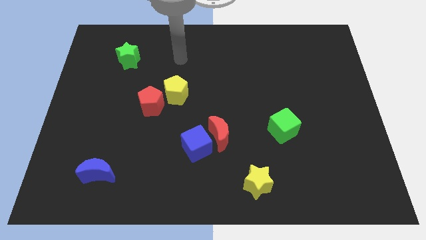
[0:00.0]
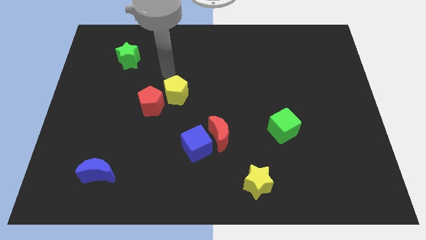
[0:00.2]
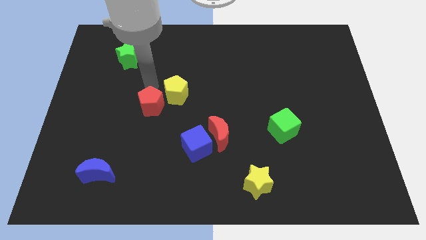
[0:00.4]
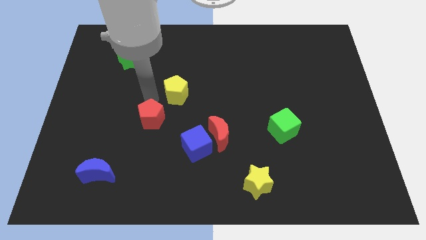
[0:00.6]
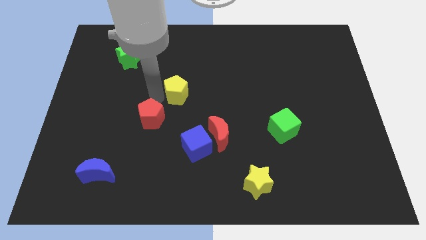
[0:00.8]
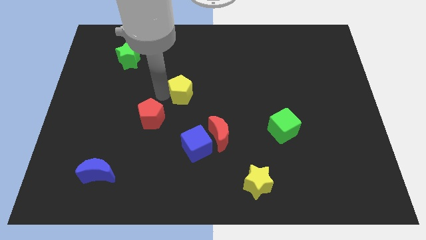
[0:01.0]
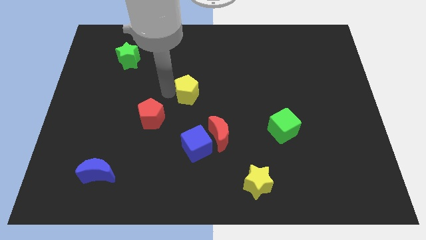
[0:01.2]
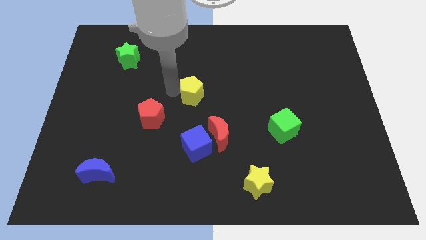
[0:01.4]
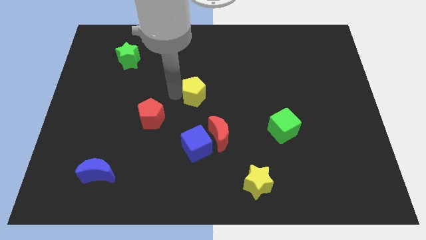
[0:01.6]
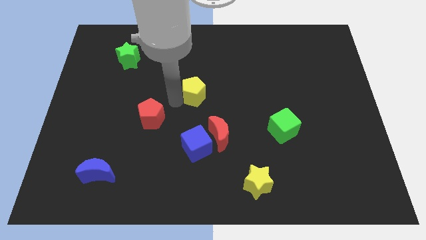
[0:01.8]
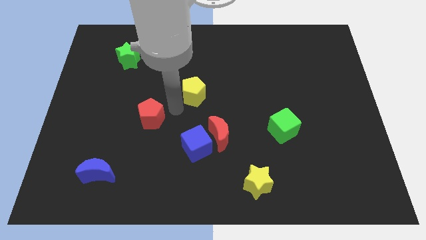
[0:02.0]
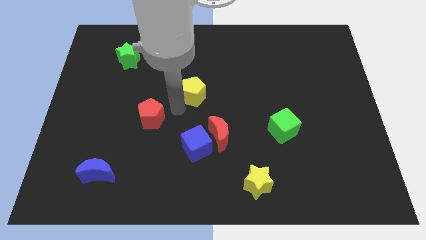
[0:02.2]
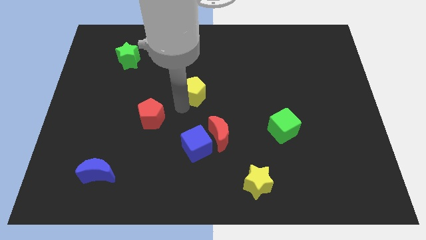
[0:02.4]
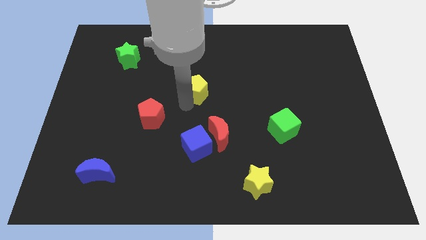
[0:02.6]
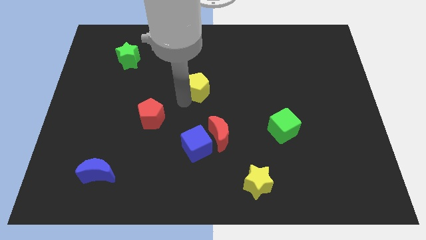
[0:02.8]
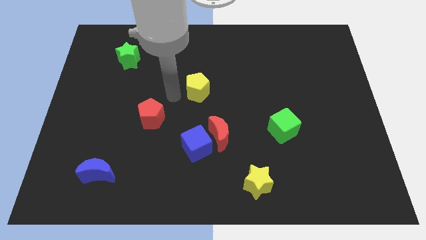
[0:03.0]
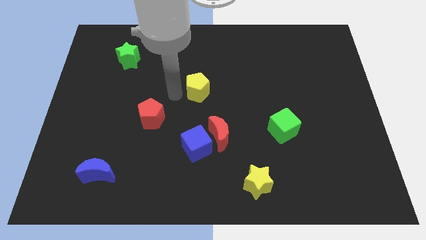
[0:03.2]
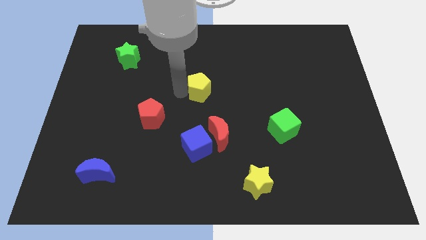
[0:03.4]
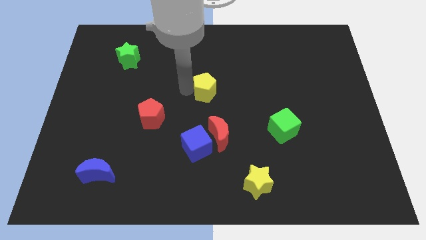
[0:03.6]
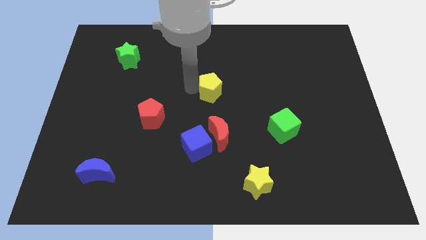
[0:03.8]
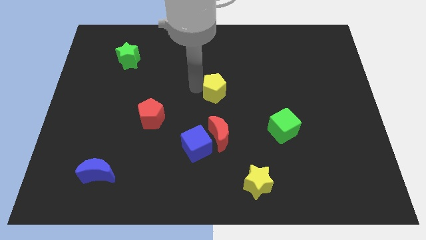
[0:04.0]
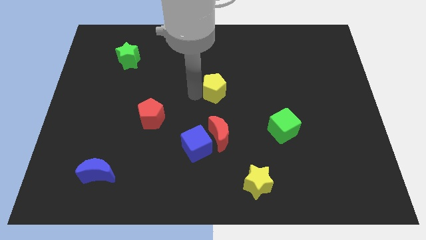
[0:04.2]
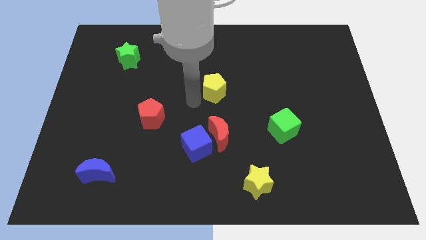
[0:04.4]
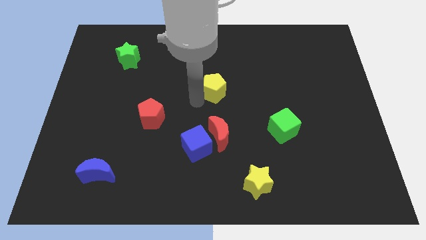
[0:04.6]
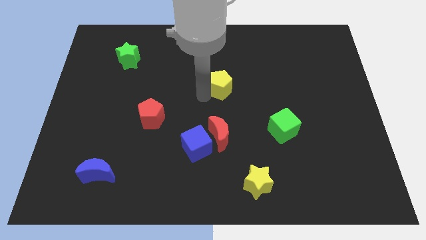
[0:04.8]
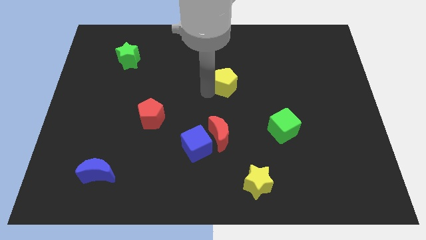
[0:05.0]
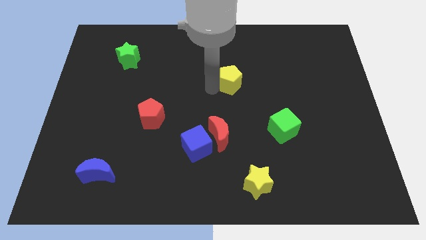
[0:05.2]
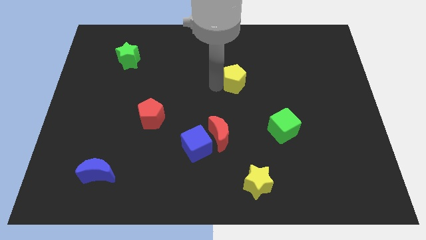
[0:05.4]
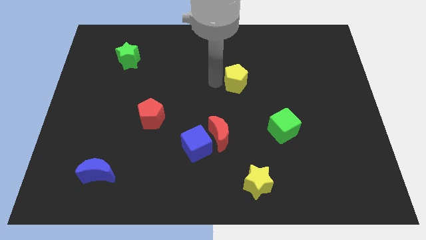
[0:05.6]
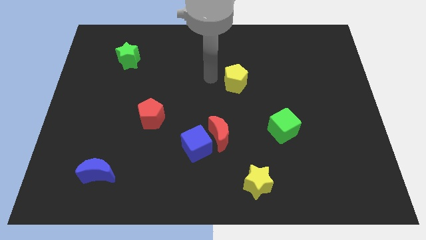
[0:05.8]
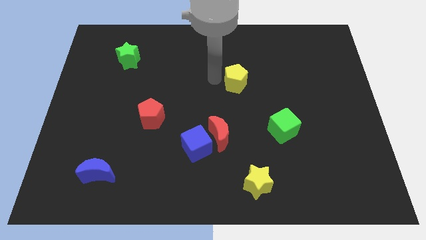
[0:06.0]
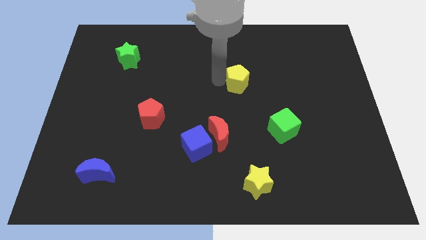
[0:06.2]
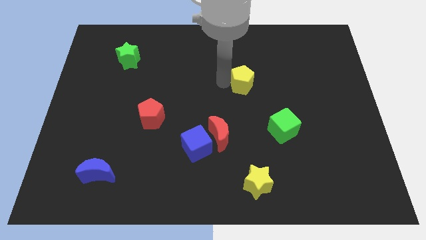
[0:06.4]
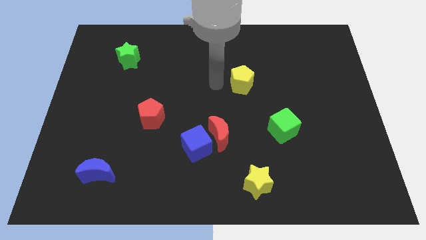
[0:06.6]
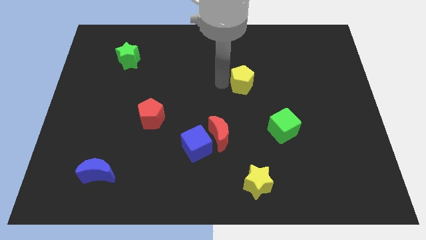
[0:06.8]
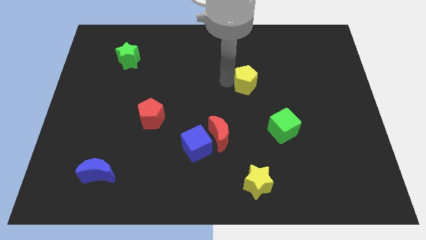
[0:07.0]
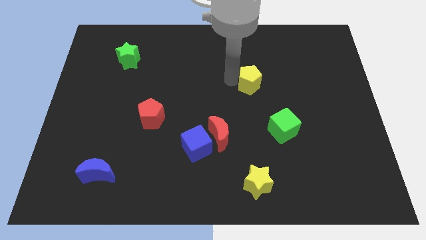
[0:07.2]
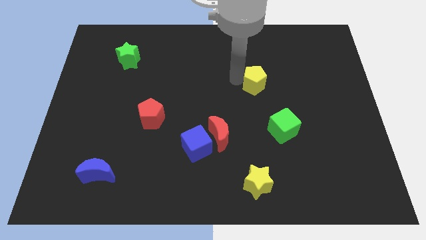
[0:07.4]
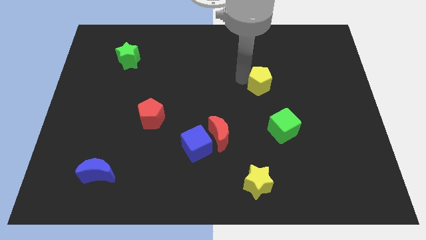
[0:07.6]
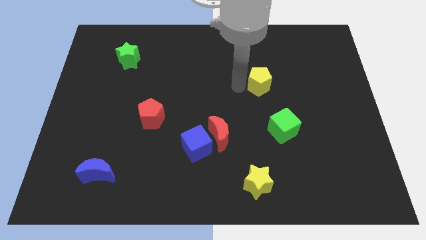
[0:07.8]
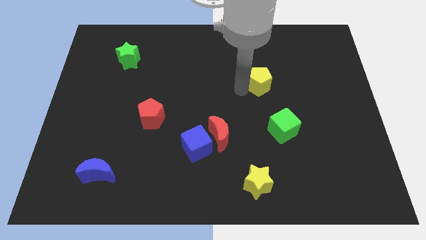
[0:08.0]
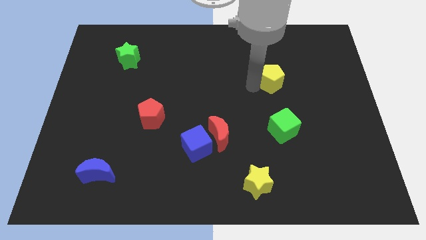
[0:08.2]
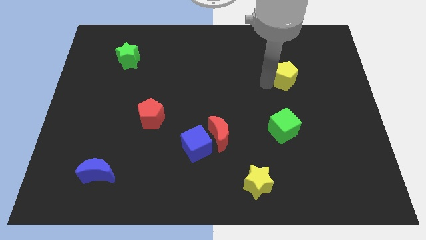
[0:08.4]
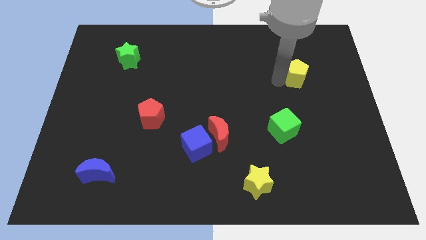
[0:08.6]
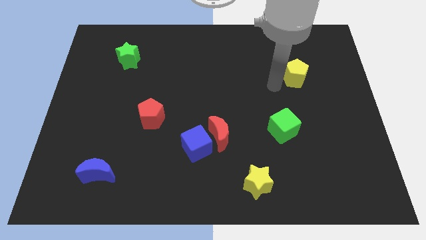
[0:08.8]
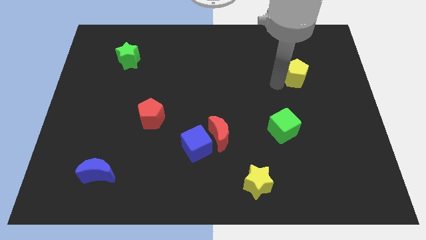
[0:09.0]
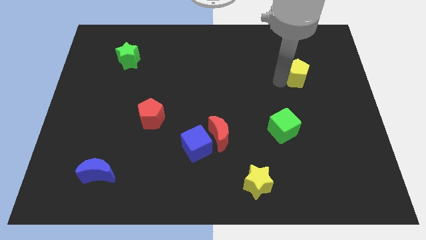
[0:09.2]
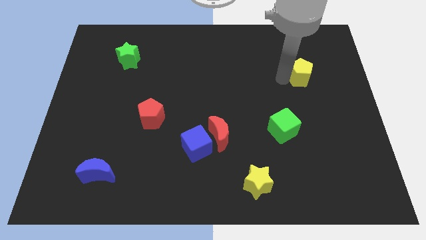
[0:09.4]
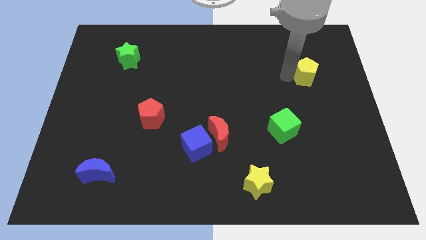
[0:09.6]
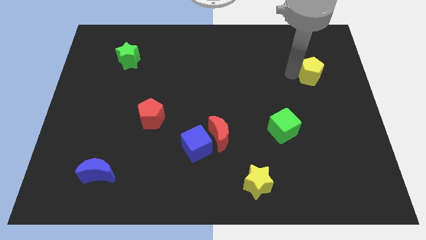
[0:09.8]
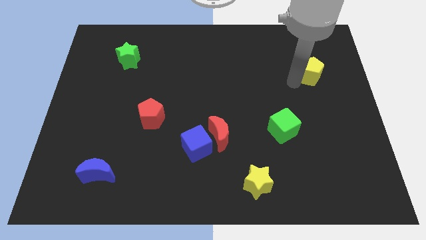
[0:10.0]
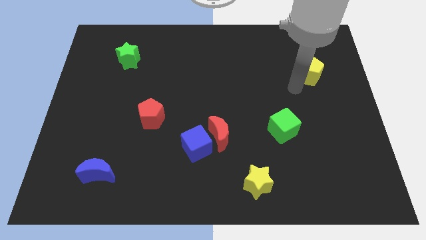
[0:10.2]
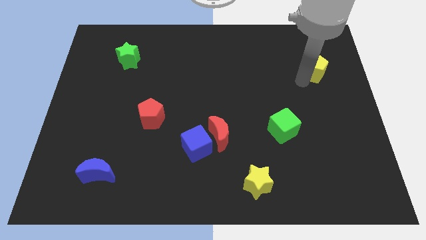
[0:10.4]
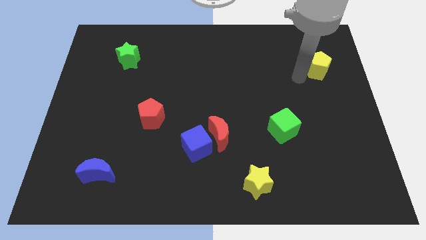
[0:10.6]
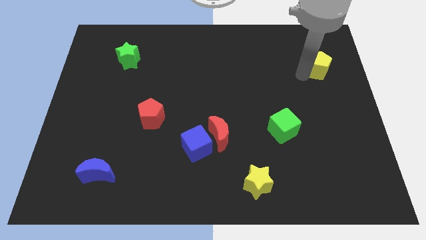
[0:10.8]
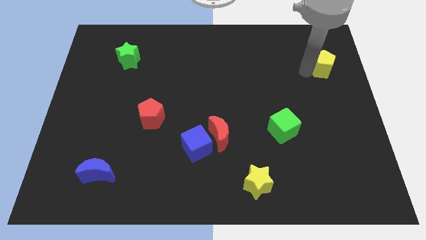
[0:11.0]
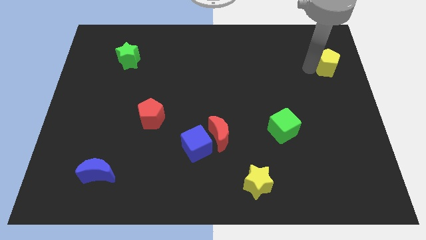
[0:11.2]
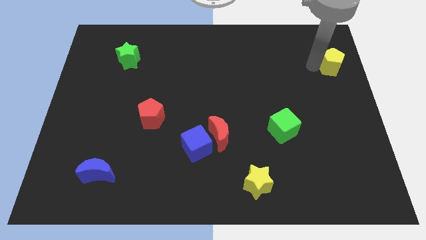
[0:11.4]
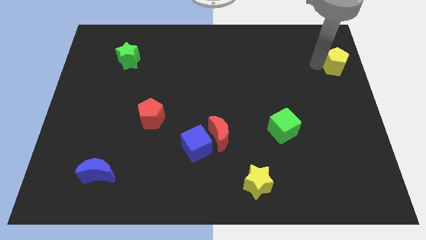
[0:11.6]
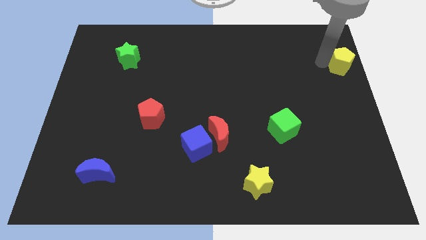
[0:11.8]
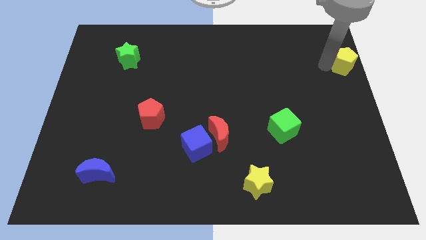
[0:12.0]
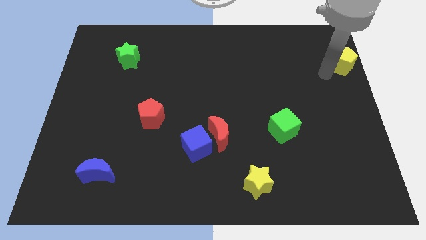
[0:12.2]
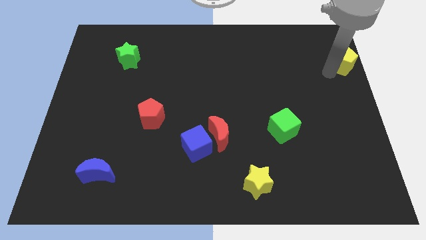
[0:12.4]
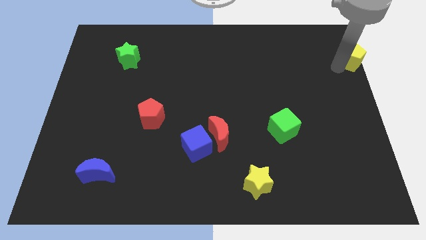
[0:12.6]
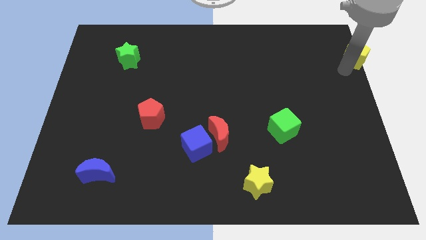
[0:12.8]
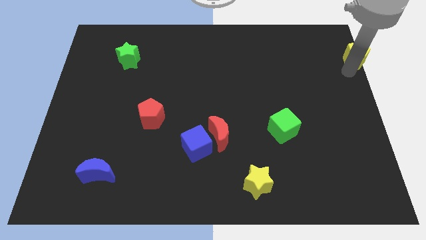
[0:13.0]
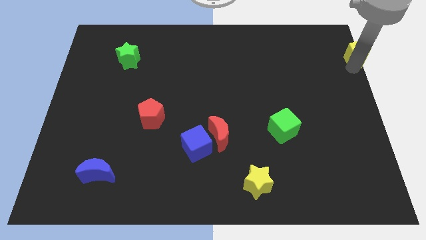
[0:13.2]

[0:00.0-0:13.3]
slide the yellow pentagon to the top right corner

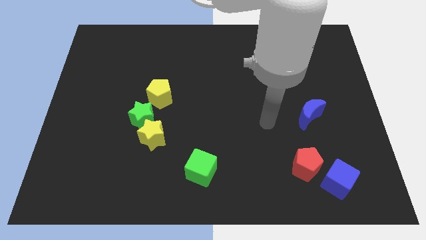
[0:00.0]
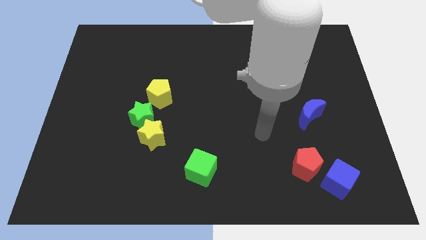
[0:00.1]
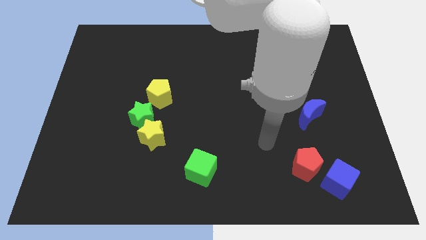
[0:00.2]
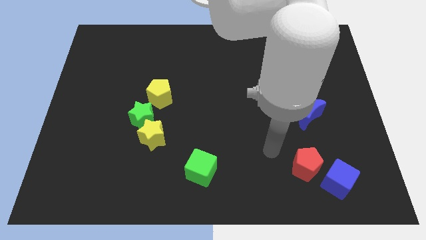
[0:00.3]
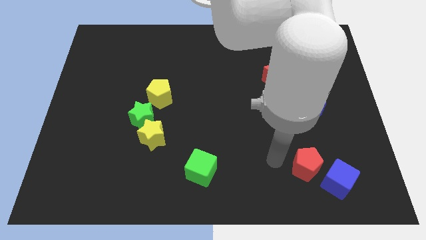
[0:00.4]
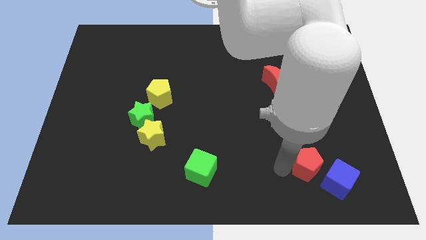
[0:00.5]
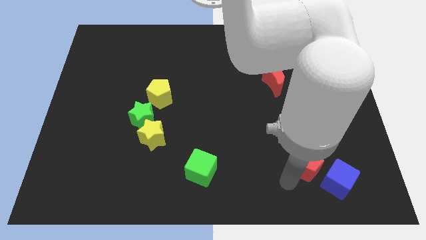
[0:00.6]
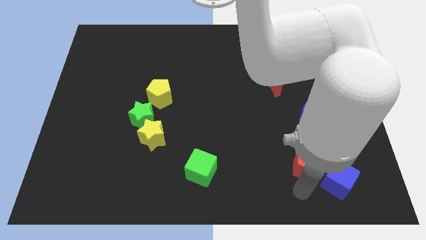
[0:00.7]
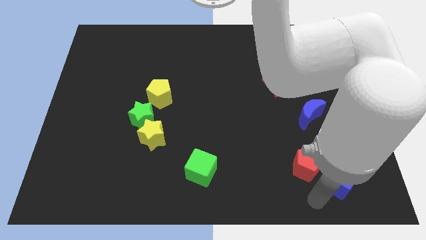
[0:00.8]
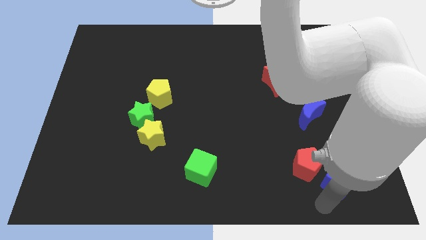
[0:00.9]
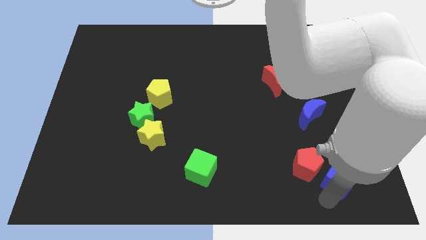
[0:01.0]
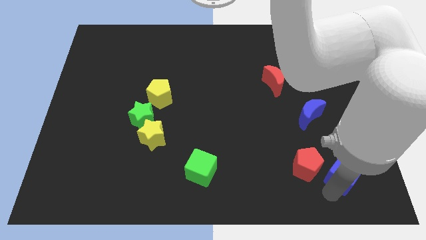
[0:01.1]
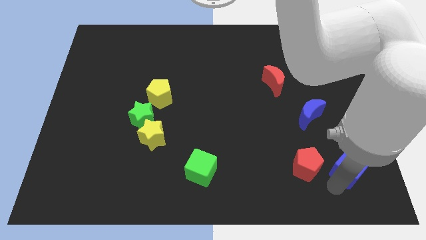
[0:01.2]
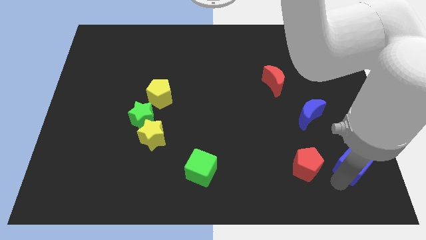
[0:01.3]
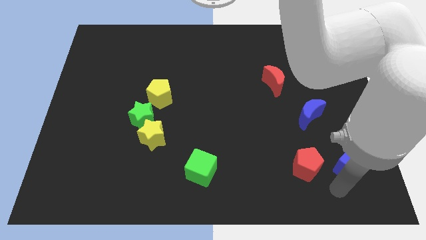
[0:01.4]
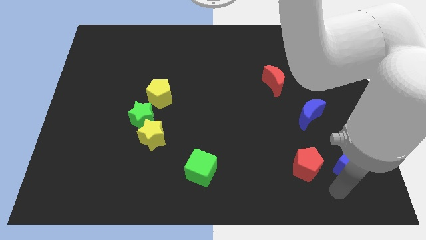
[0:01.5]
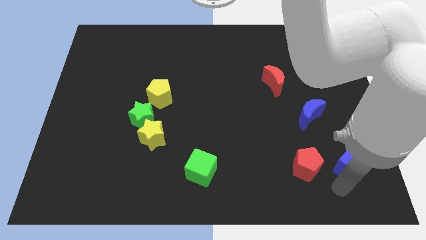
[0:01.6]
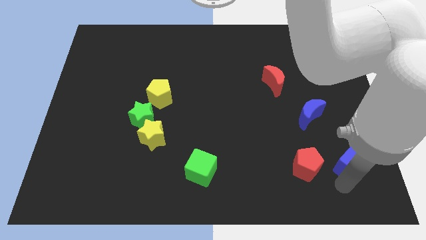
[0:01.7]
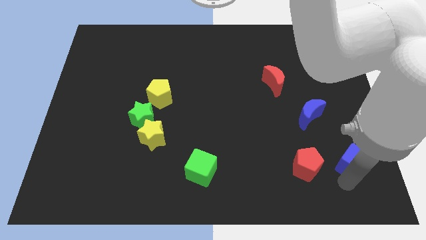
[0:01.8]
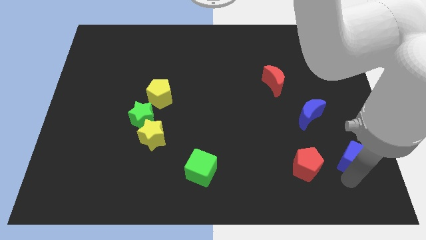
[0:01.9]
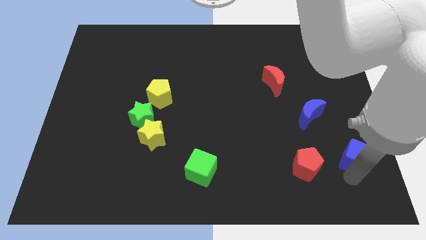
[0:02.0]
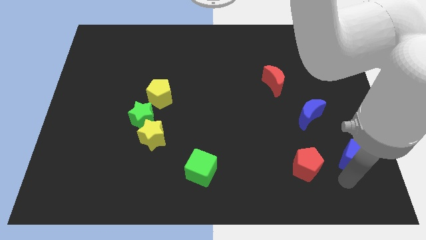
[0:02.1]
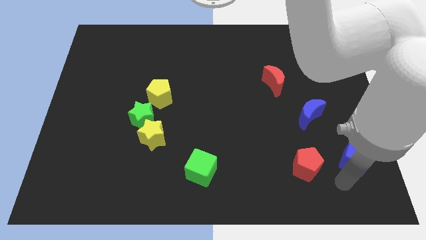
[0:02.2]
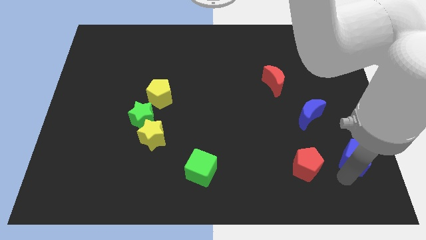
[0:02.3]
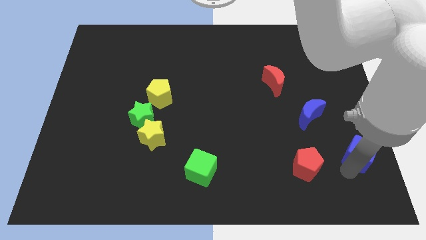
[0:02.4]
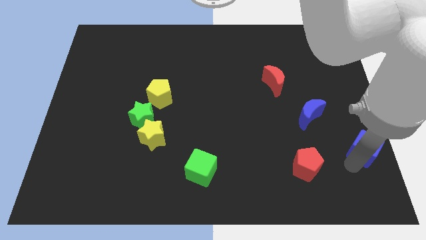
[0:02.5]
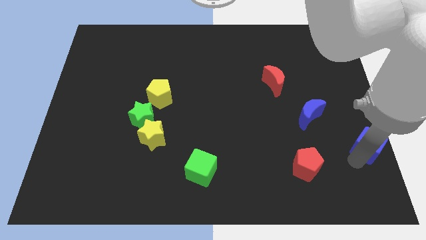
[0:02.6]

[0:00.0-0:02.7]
slide the blue cube to the center right
